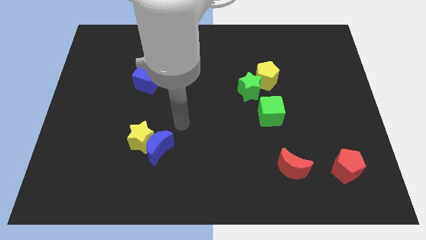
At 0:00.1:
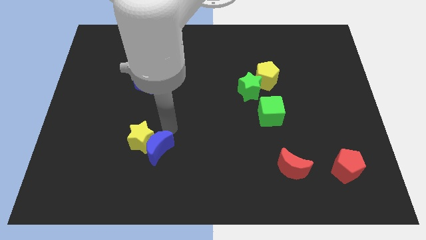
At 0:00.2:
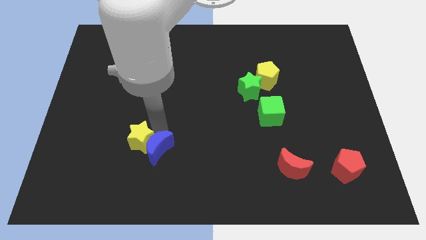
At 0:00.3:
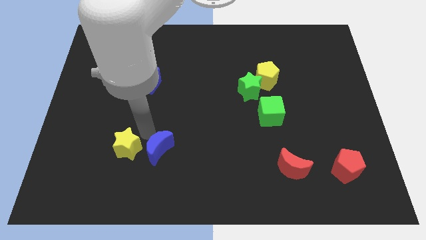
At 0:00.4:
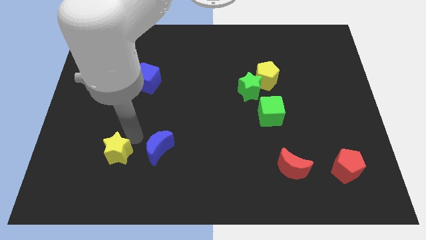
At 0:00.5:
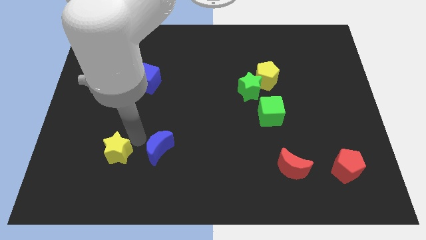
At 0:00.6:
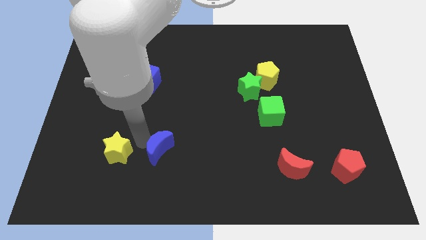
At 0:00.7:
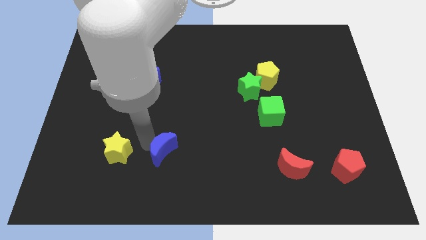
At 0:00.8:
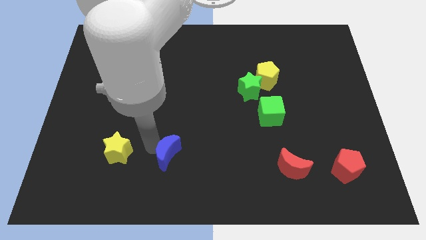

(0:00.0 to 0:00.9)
separate the blue moon from the yellow star

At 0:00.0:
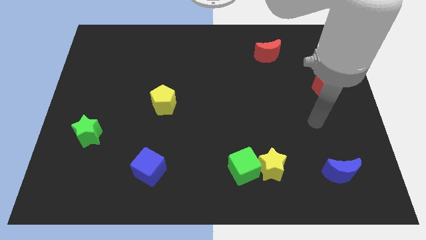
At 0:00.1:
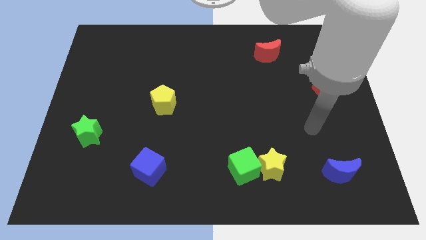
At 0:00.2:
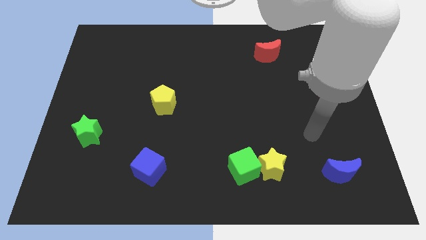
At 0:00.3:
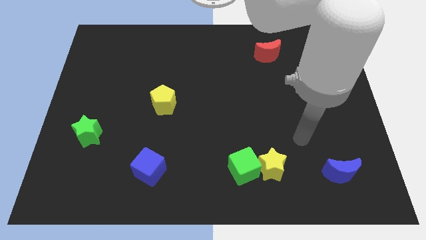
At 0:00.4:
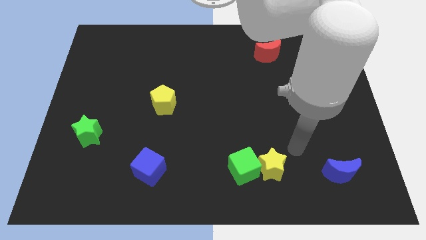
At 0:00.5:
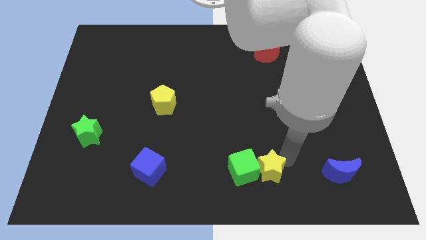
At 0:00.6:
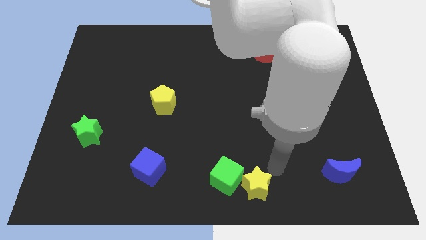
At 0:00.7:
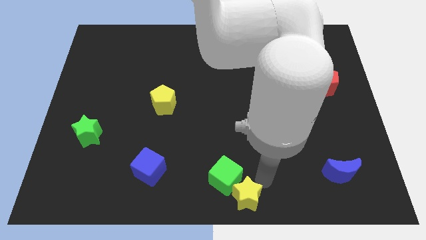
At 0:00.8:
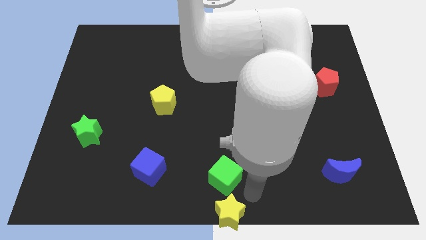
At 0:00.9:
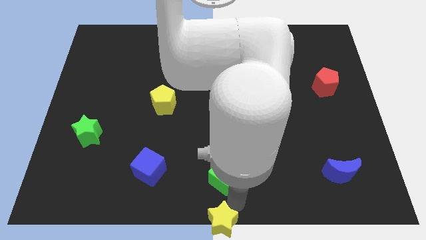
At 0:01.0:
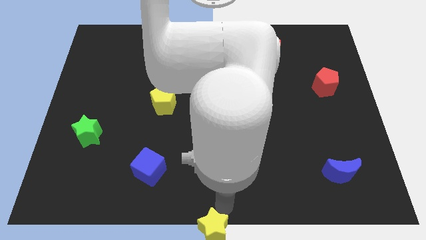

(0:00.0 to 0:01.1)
move the green cube away from the yellow star

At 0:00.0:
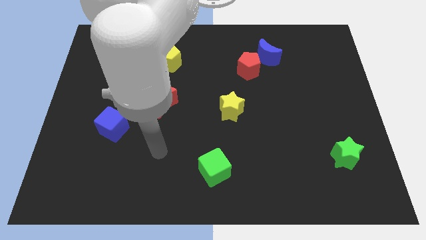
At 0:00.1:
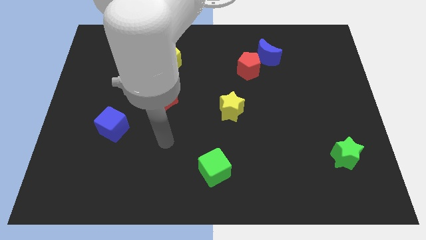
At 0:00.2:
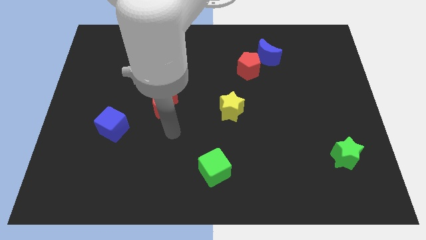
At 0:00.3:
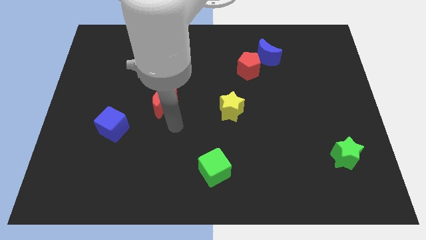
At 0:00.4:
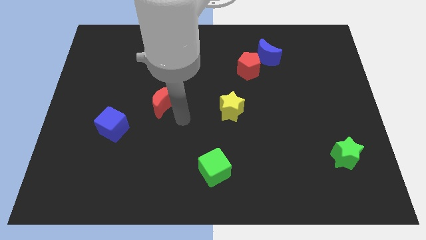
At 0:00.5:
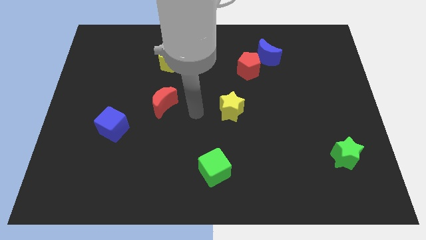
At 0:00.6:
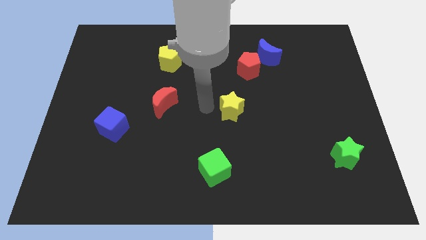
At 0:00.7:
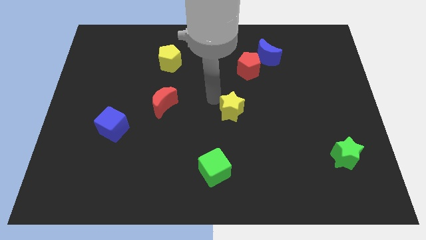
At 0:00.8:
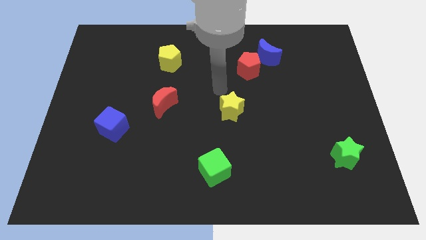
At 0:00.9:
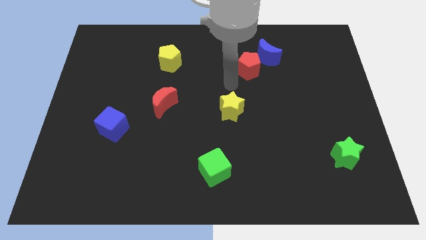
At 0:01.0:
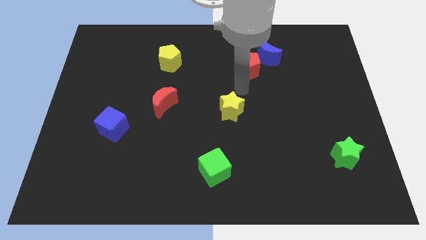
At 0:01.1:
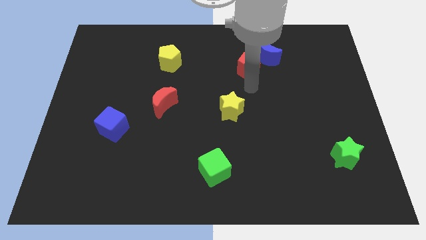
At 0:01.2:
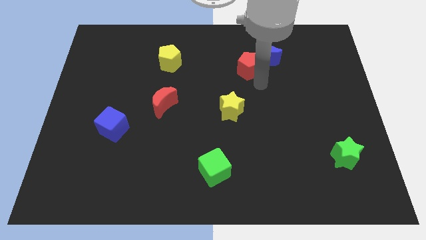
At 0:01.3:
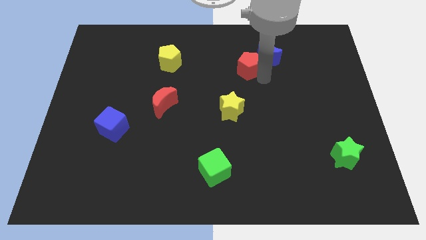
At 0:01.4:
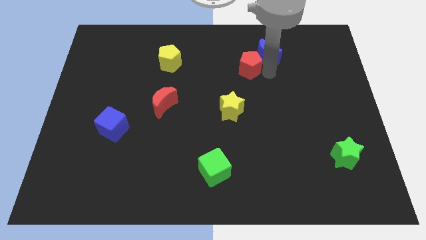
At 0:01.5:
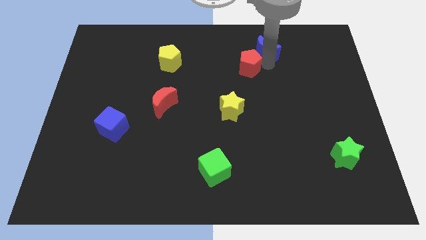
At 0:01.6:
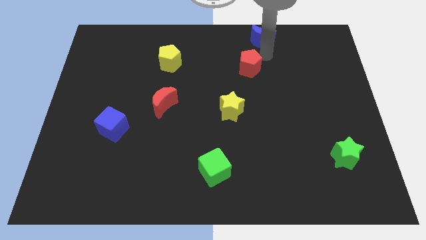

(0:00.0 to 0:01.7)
separate the red pentagon from the blue moon

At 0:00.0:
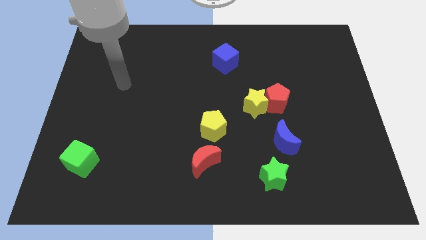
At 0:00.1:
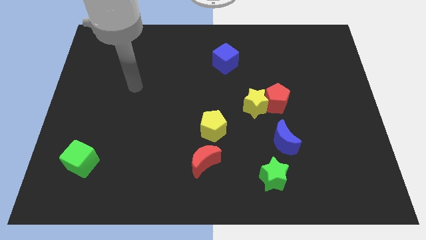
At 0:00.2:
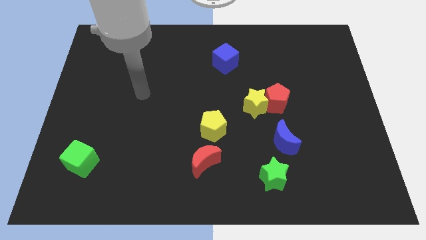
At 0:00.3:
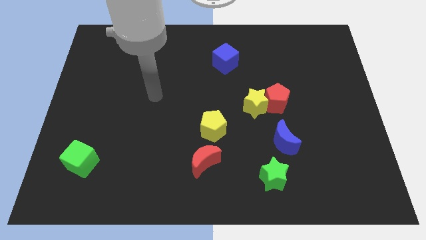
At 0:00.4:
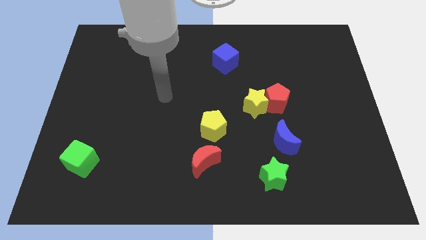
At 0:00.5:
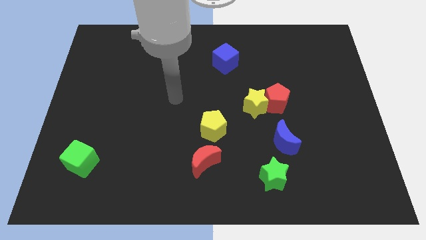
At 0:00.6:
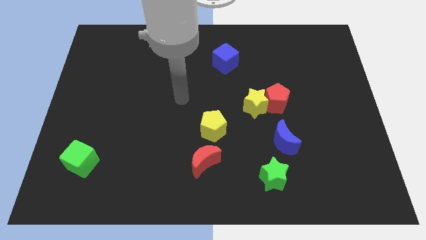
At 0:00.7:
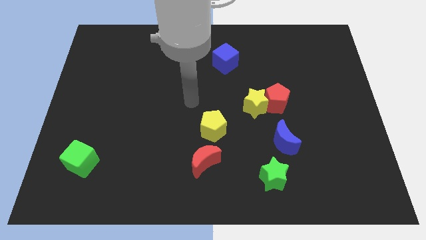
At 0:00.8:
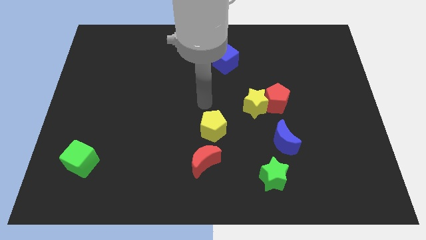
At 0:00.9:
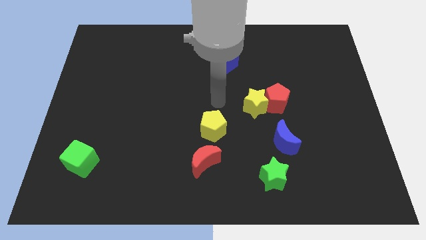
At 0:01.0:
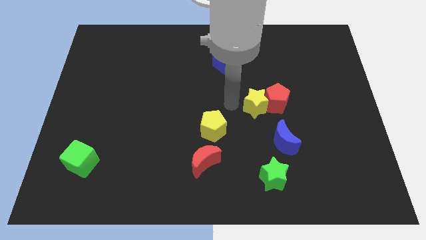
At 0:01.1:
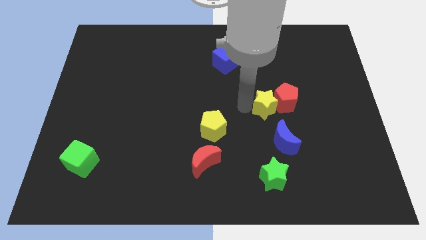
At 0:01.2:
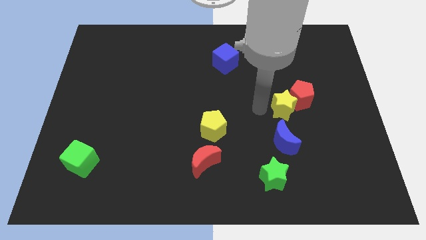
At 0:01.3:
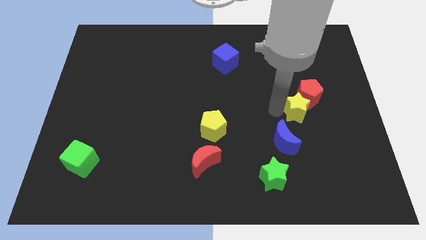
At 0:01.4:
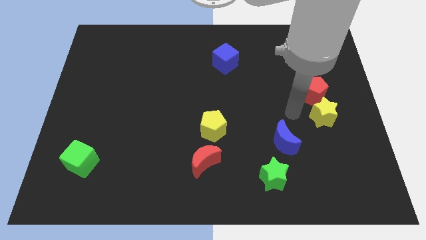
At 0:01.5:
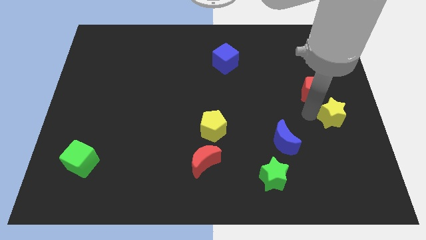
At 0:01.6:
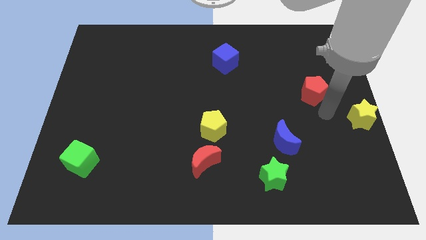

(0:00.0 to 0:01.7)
move the red pentagon away from the yellow star

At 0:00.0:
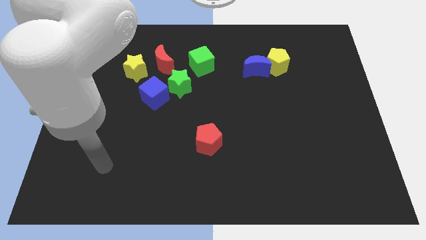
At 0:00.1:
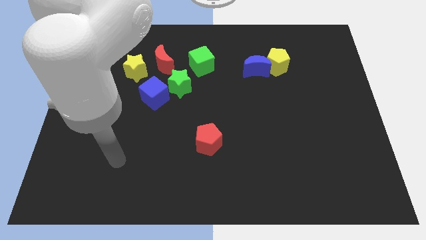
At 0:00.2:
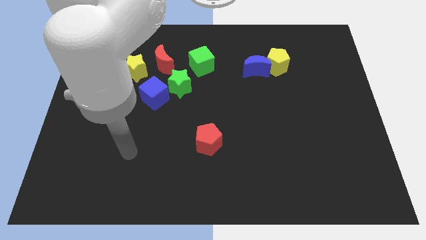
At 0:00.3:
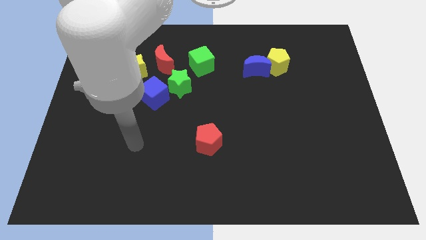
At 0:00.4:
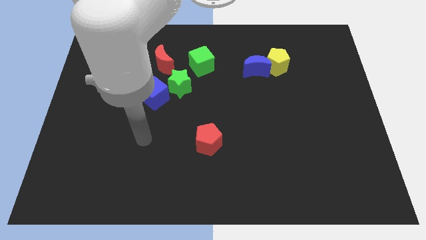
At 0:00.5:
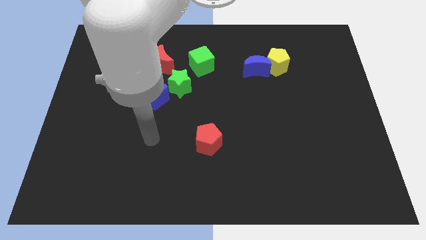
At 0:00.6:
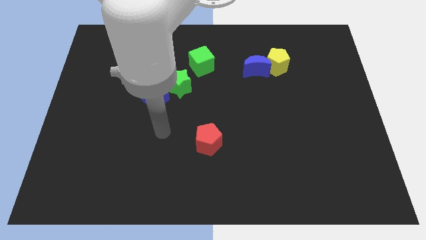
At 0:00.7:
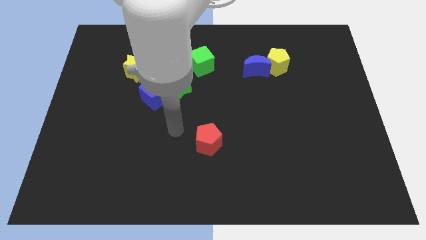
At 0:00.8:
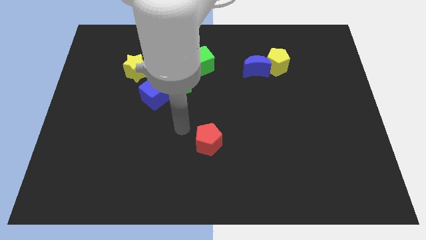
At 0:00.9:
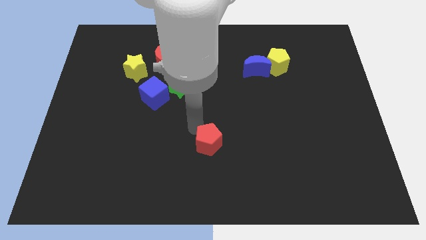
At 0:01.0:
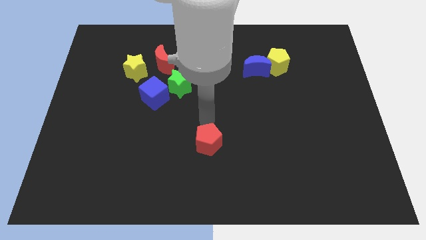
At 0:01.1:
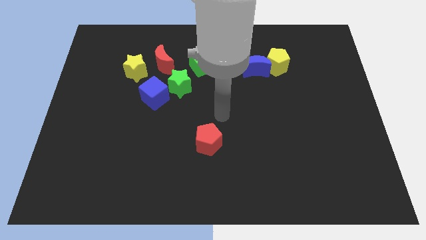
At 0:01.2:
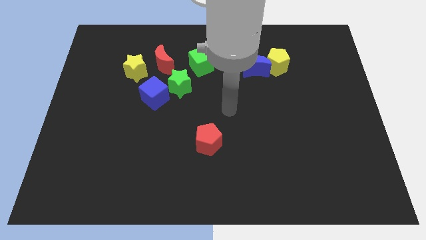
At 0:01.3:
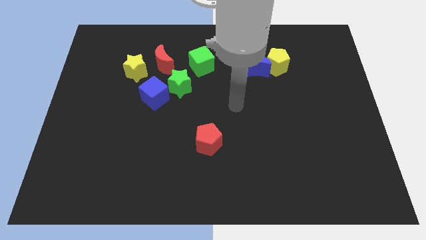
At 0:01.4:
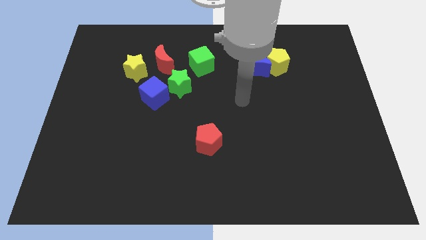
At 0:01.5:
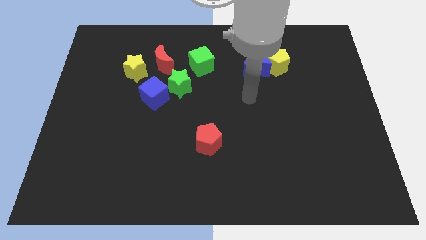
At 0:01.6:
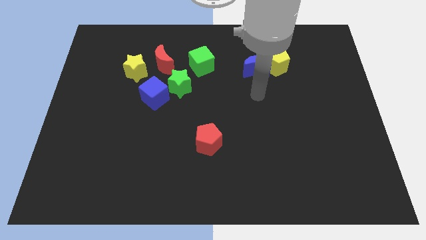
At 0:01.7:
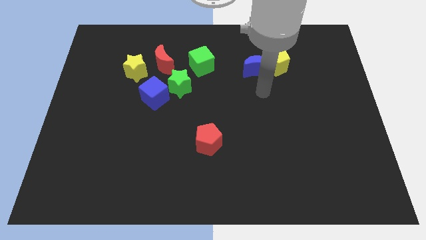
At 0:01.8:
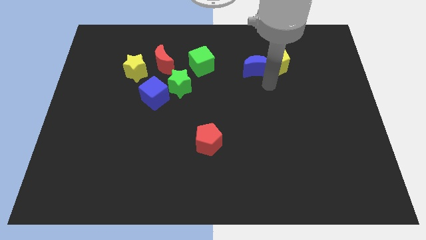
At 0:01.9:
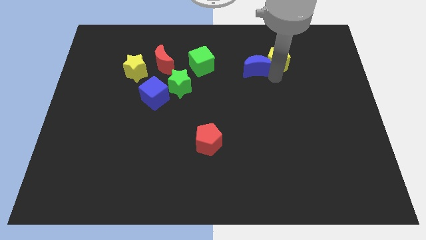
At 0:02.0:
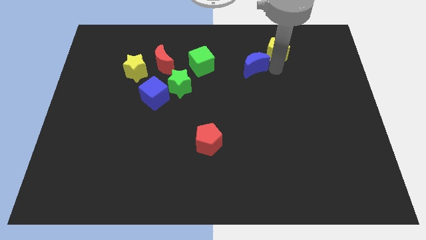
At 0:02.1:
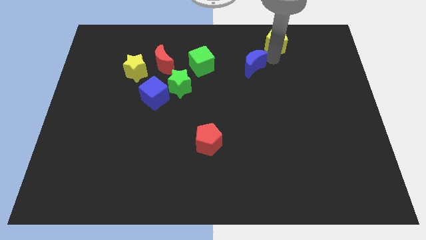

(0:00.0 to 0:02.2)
separate the blue moon from the yellow pentagon

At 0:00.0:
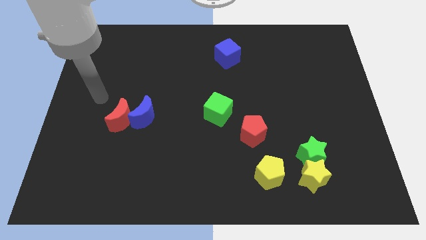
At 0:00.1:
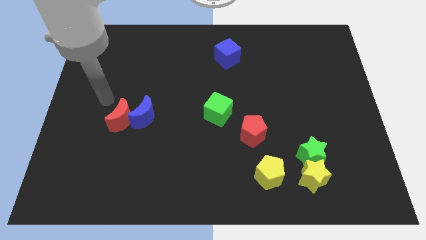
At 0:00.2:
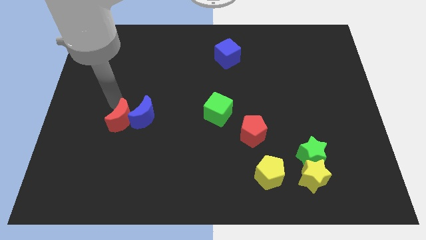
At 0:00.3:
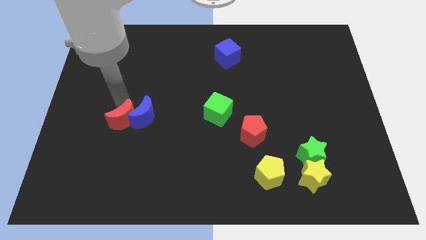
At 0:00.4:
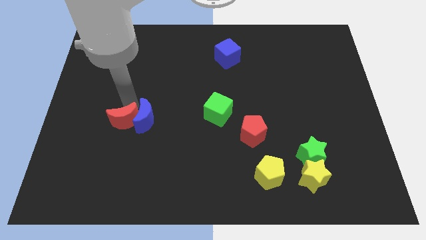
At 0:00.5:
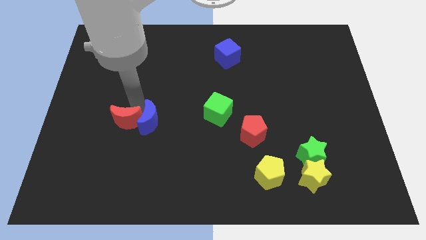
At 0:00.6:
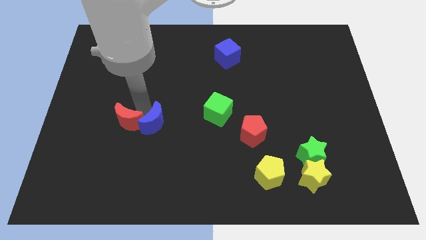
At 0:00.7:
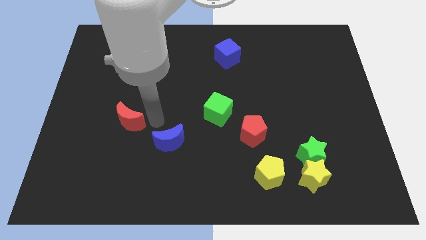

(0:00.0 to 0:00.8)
move the red moon away from the blue moon

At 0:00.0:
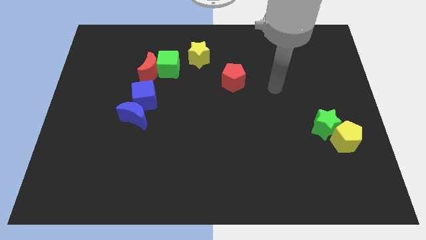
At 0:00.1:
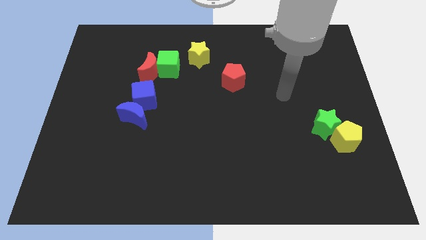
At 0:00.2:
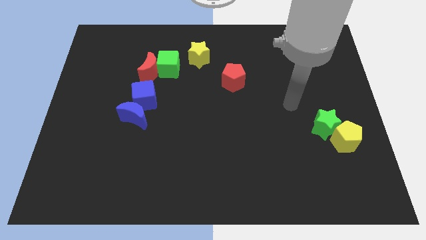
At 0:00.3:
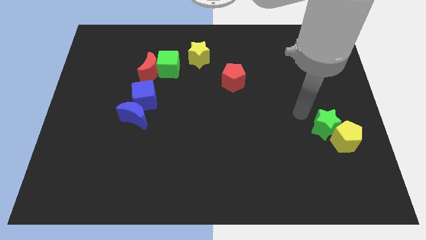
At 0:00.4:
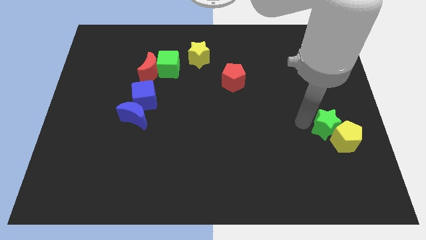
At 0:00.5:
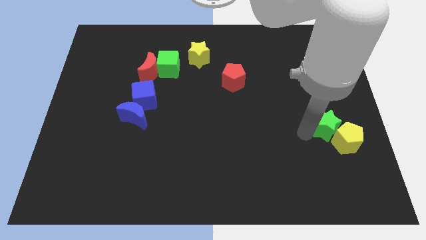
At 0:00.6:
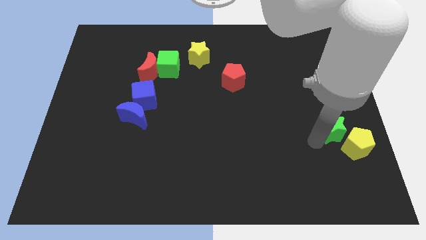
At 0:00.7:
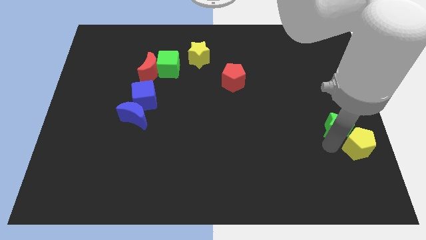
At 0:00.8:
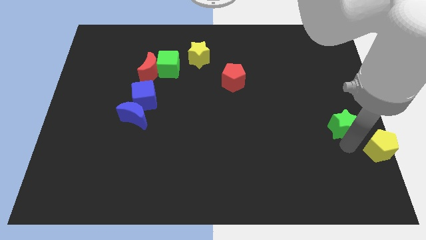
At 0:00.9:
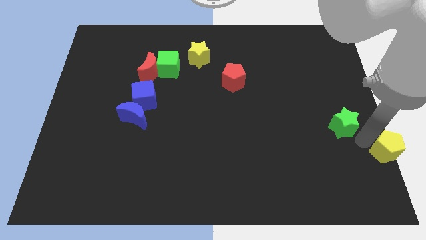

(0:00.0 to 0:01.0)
pull the green star apart from the yellow pentagon

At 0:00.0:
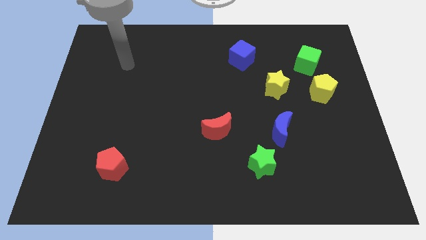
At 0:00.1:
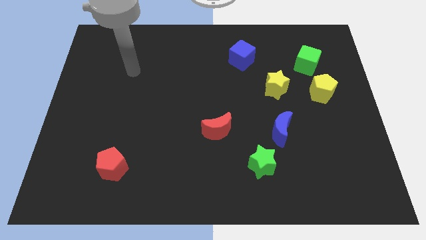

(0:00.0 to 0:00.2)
move the blue moon away from the green star
